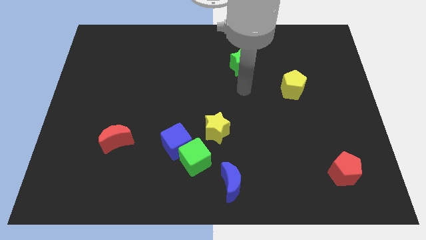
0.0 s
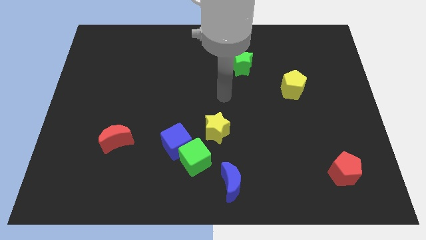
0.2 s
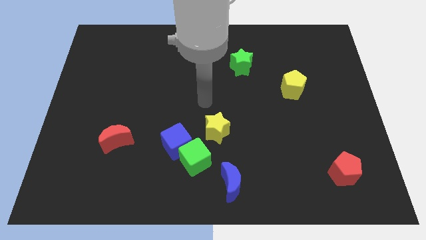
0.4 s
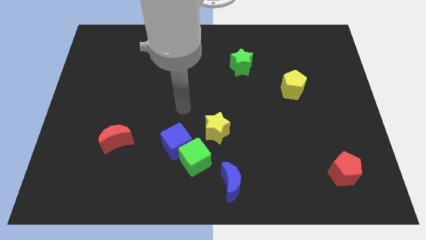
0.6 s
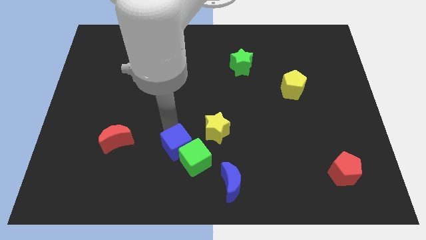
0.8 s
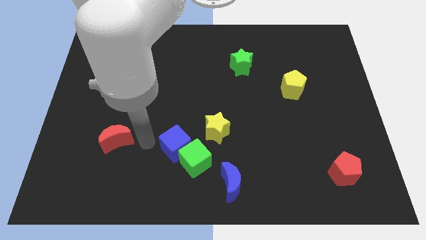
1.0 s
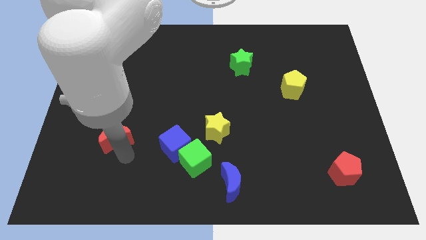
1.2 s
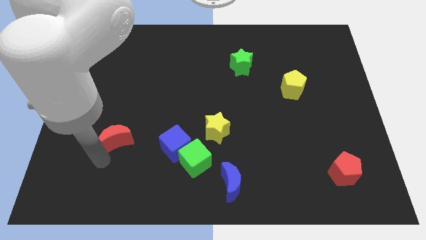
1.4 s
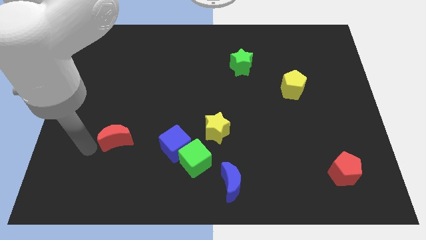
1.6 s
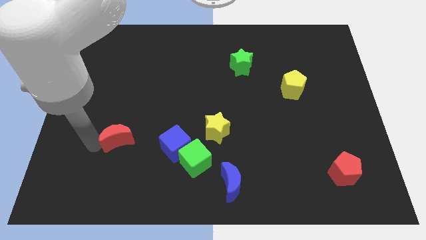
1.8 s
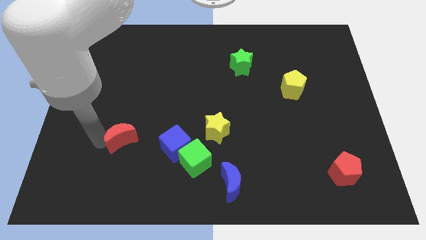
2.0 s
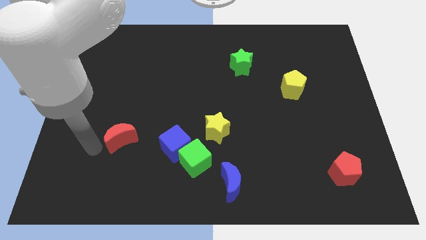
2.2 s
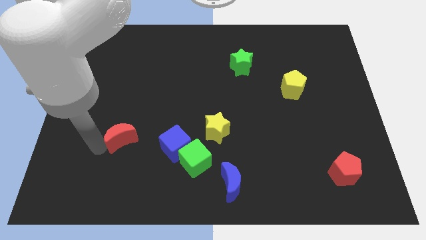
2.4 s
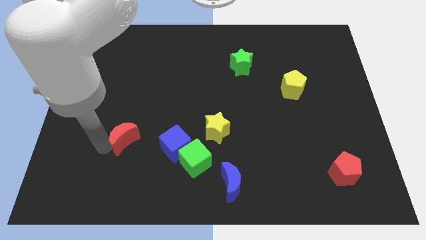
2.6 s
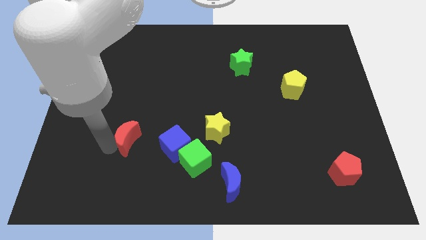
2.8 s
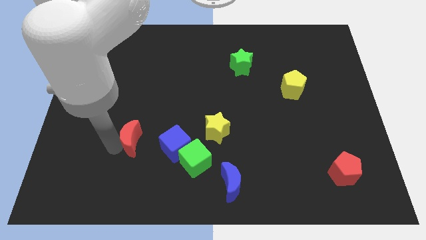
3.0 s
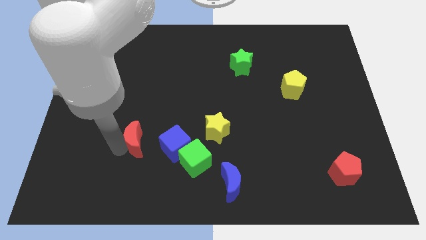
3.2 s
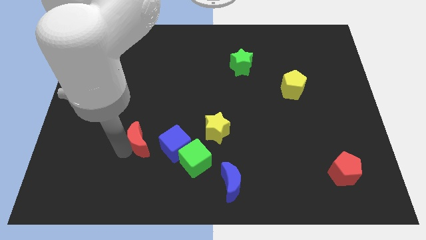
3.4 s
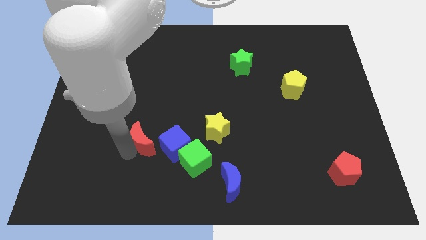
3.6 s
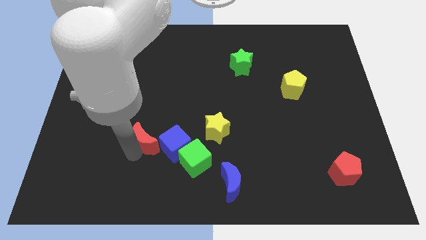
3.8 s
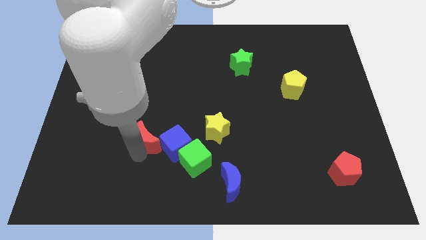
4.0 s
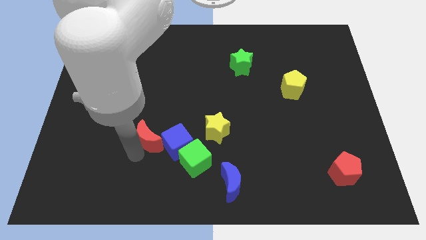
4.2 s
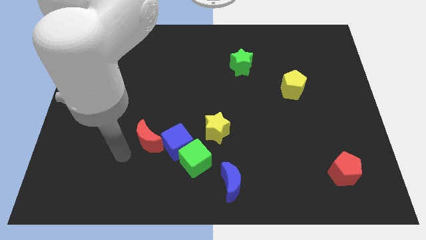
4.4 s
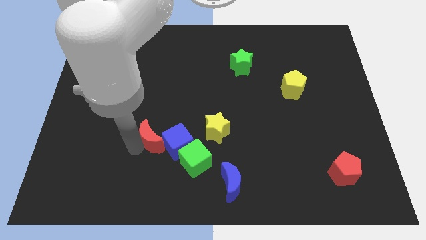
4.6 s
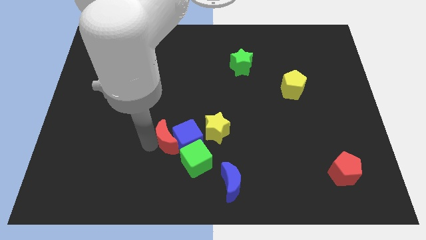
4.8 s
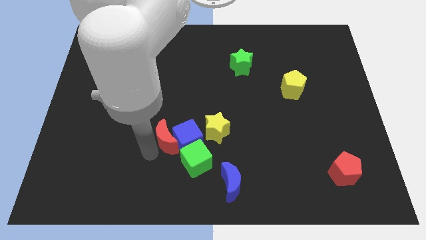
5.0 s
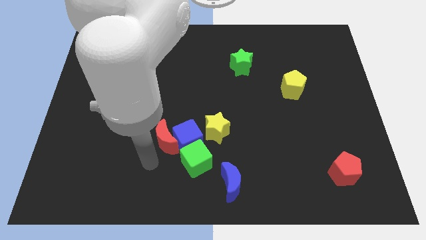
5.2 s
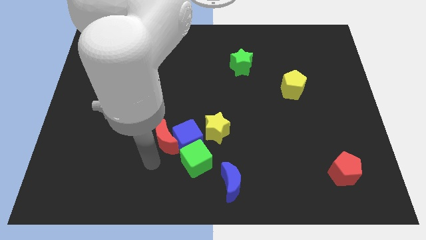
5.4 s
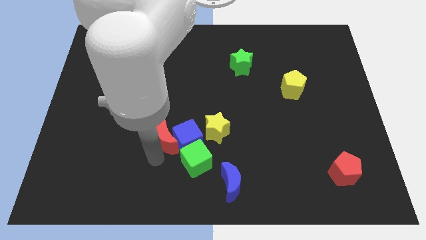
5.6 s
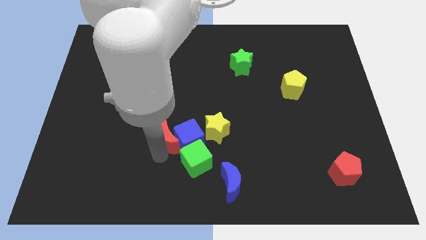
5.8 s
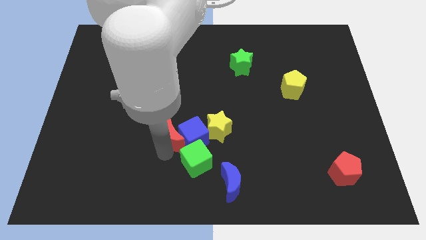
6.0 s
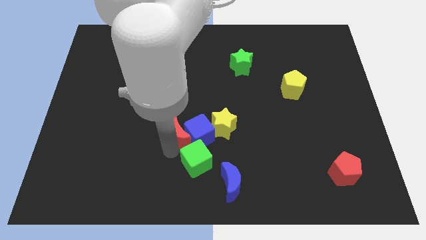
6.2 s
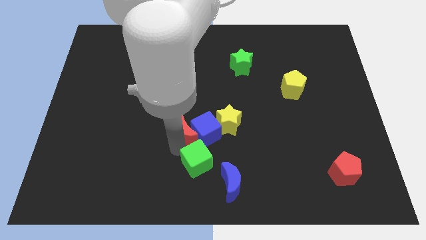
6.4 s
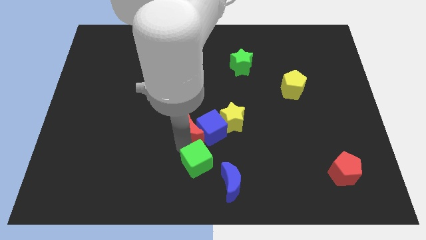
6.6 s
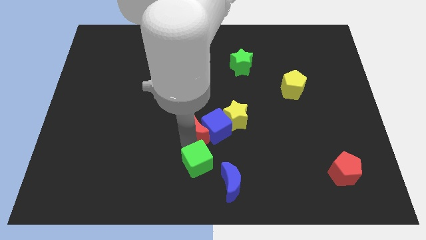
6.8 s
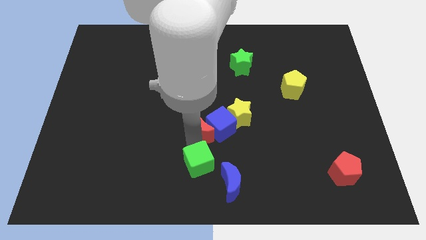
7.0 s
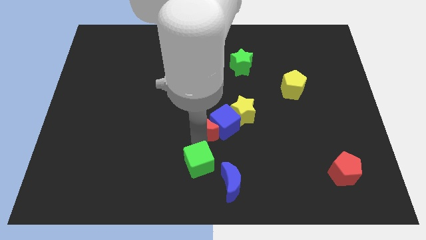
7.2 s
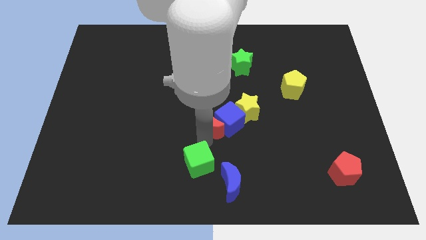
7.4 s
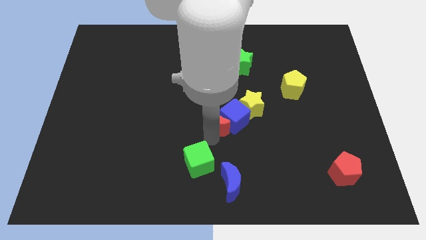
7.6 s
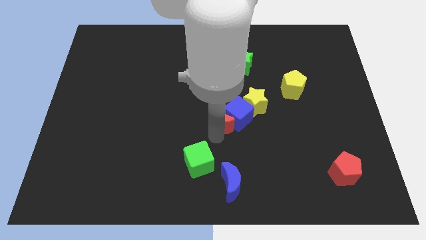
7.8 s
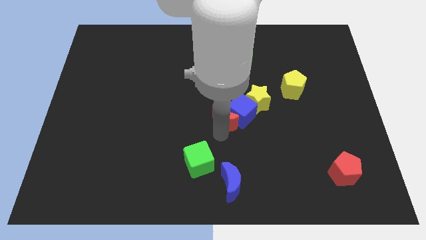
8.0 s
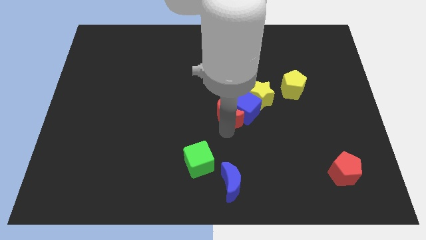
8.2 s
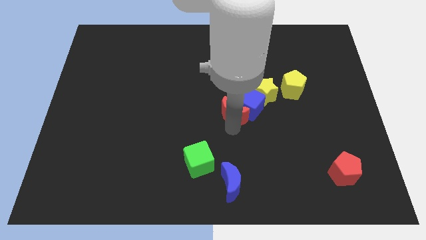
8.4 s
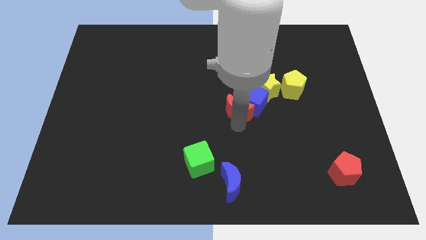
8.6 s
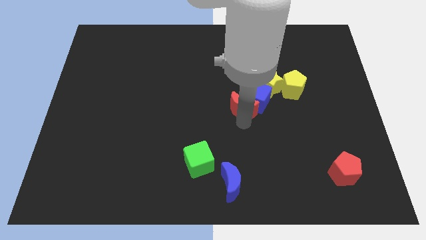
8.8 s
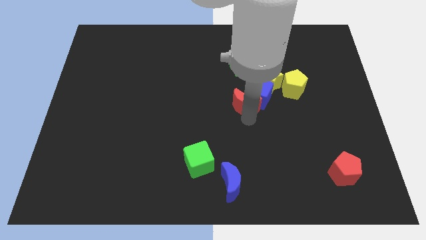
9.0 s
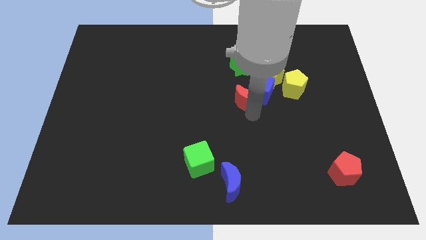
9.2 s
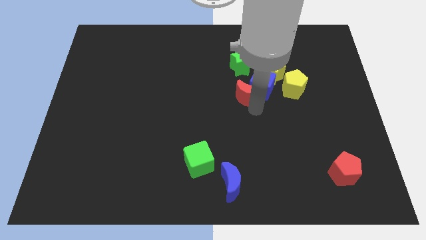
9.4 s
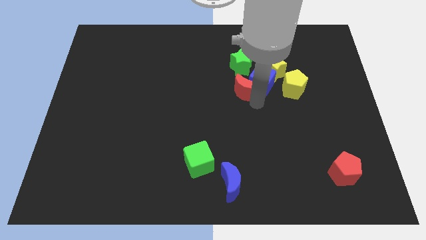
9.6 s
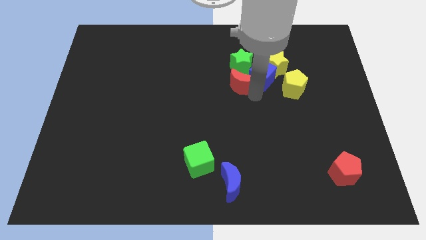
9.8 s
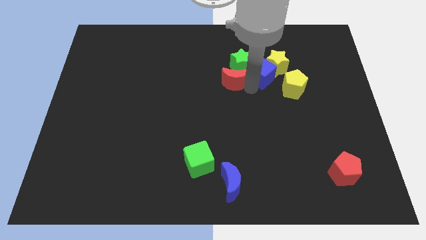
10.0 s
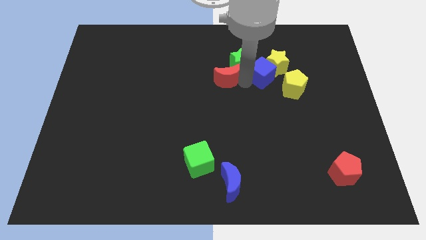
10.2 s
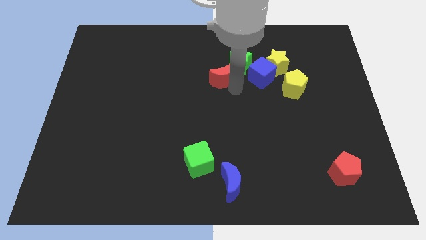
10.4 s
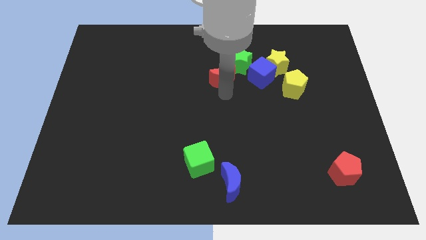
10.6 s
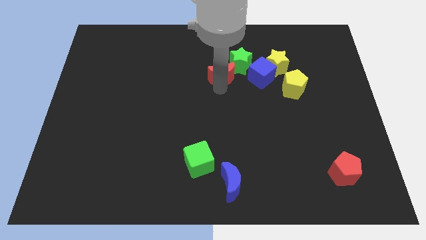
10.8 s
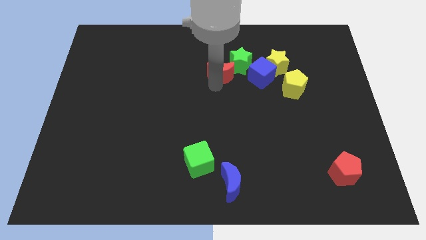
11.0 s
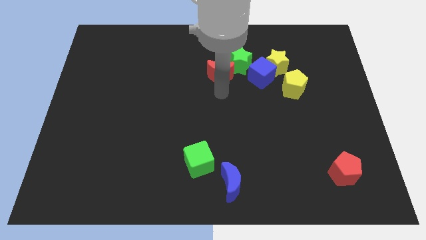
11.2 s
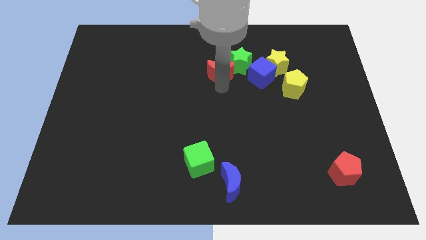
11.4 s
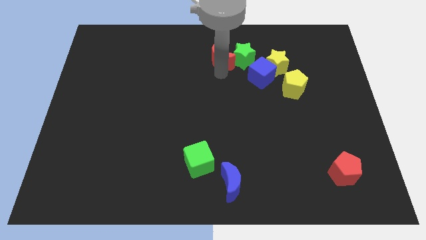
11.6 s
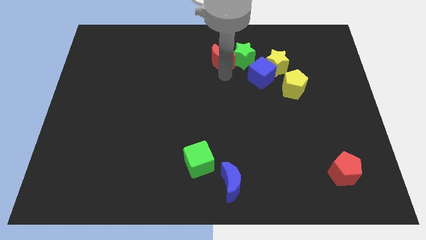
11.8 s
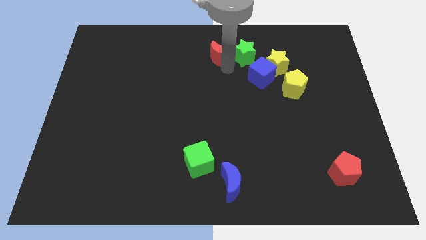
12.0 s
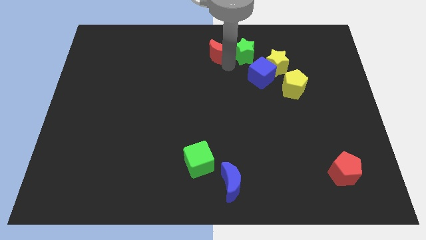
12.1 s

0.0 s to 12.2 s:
push the red moon to the top side

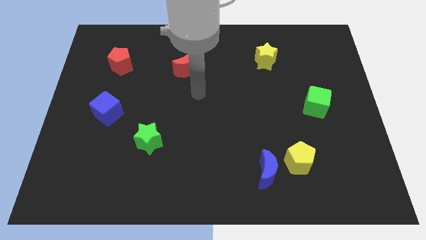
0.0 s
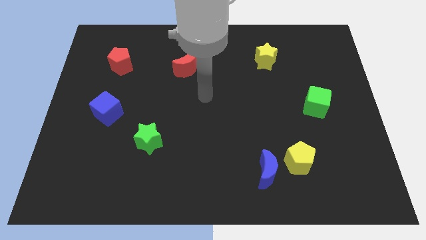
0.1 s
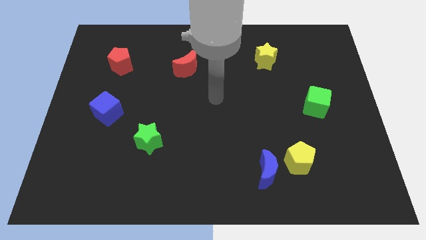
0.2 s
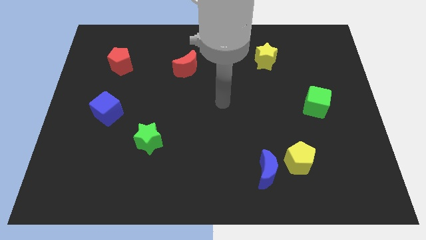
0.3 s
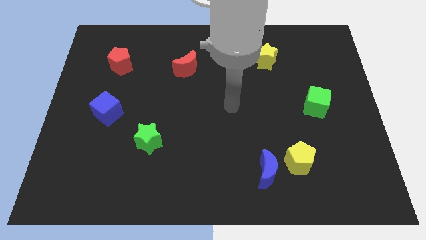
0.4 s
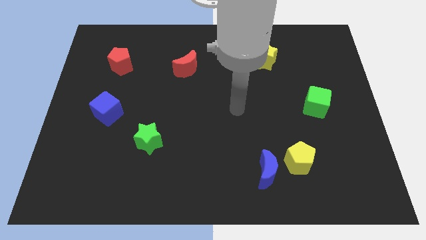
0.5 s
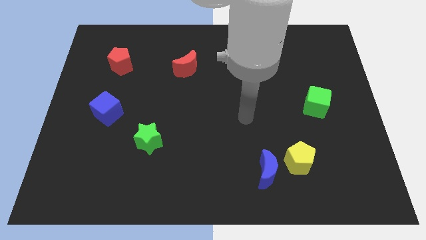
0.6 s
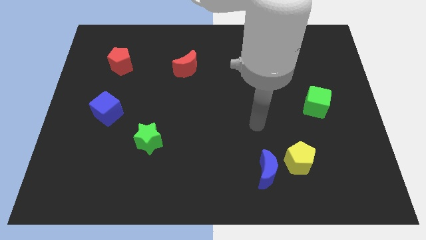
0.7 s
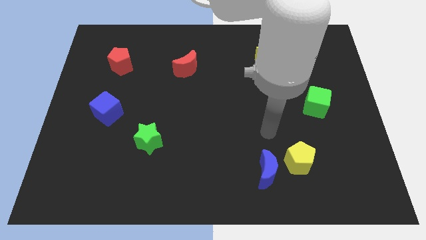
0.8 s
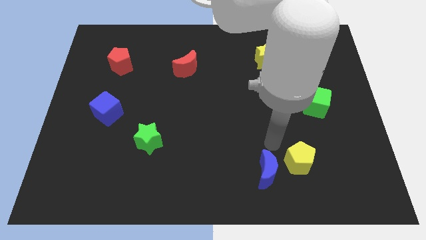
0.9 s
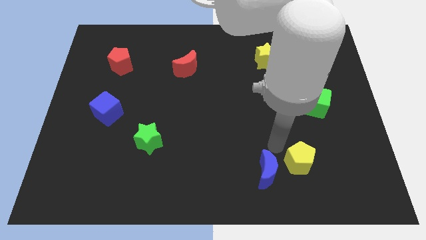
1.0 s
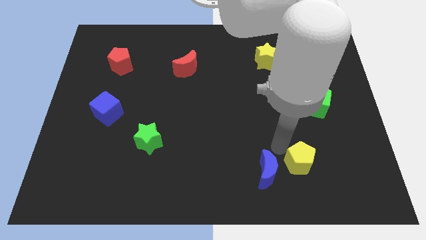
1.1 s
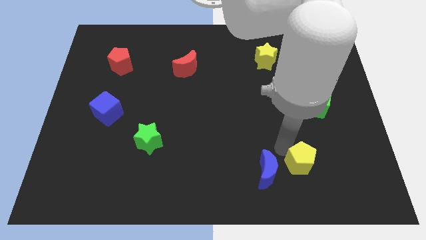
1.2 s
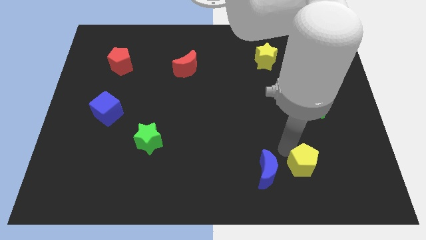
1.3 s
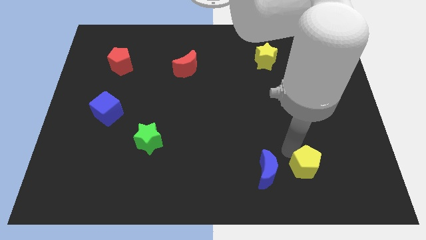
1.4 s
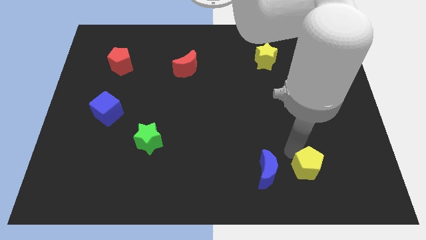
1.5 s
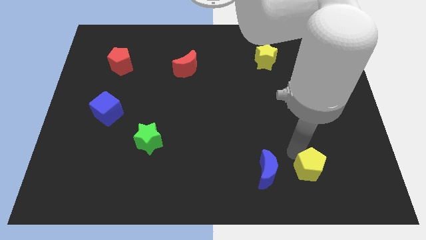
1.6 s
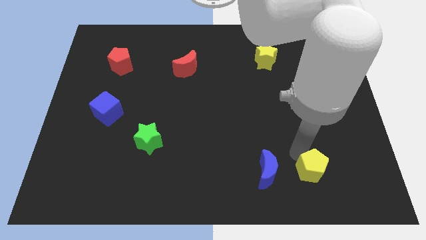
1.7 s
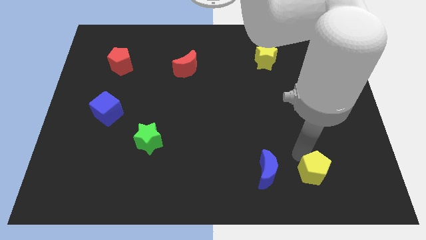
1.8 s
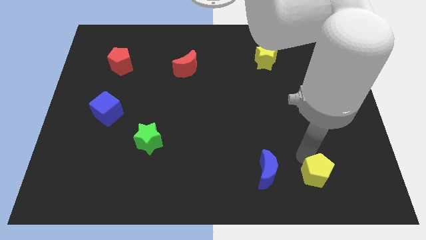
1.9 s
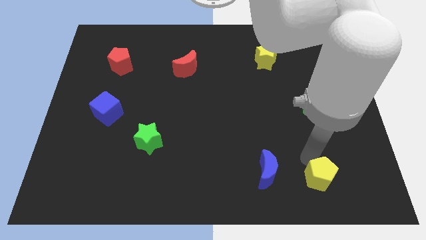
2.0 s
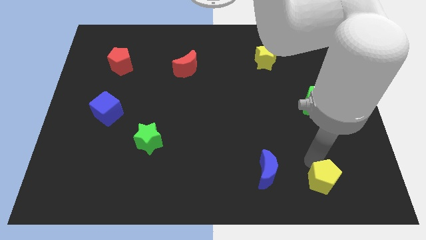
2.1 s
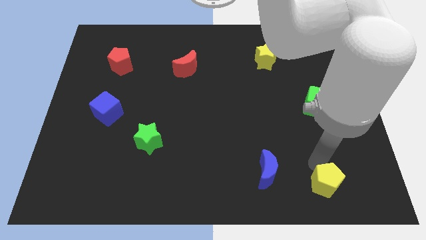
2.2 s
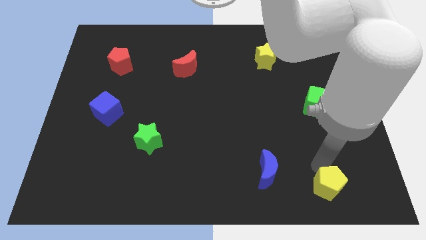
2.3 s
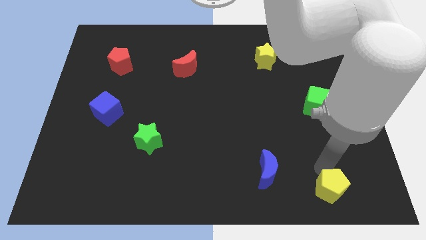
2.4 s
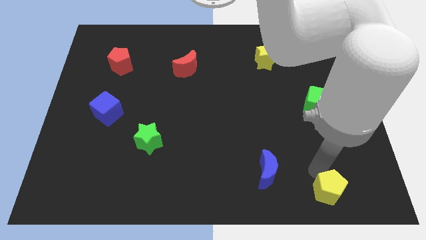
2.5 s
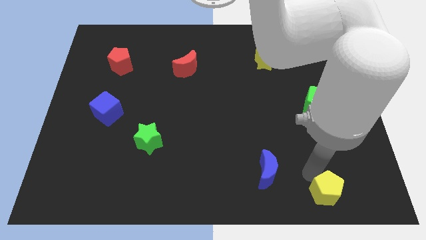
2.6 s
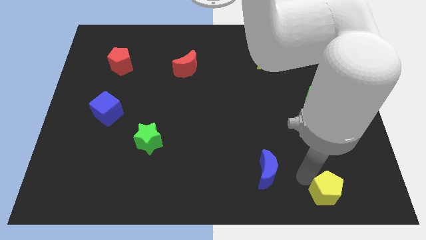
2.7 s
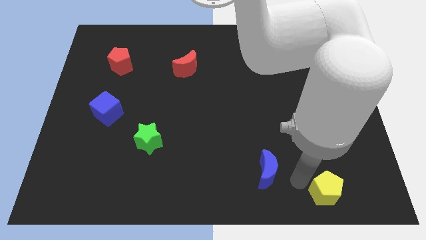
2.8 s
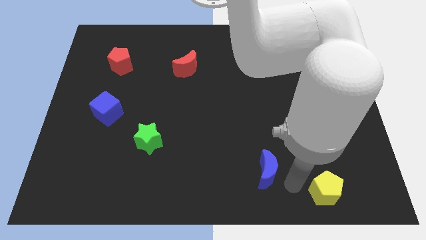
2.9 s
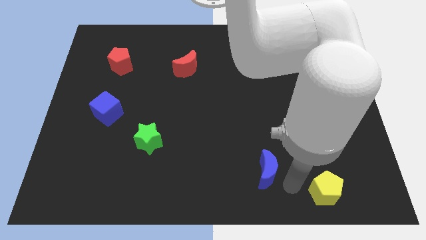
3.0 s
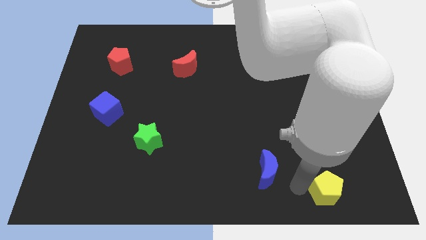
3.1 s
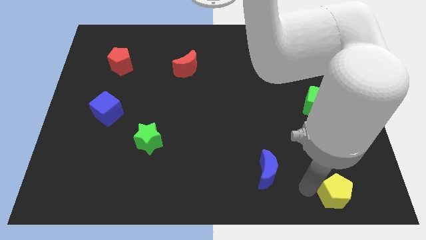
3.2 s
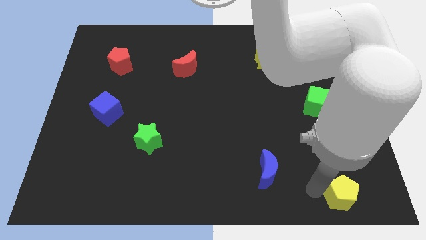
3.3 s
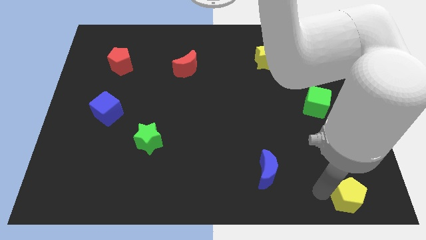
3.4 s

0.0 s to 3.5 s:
slide the yellow pentagon to the bottom right corner
